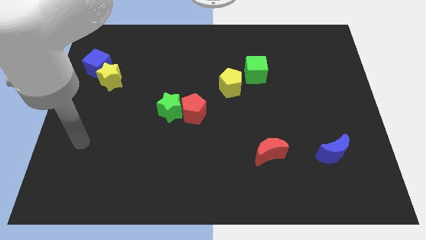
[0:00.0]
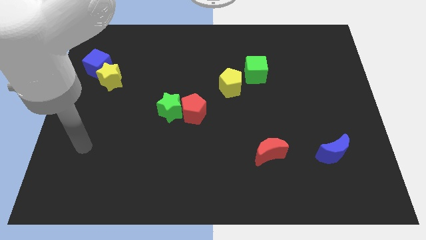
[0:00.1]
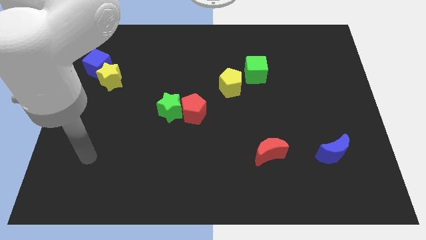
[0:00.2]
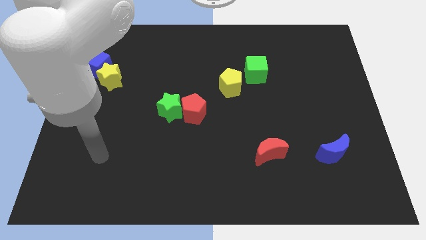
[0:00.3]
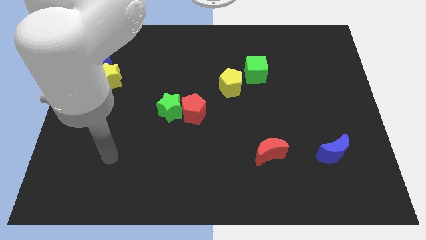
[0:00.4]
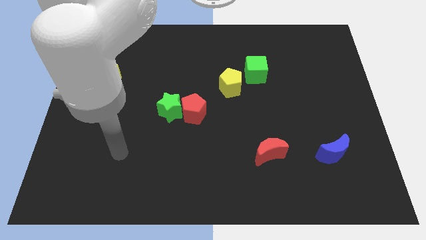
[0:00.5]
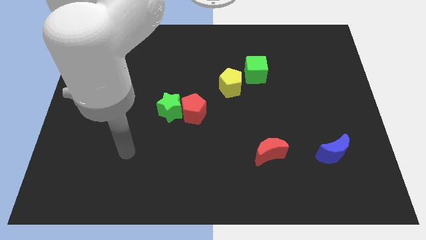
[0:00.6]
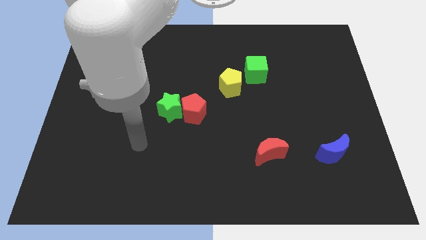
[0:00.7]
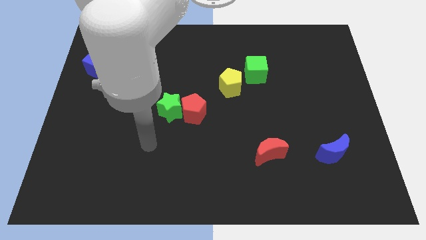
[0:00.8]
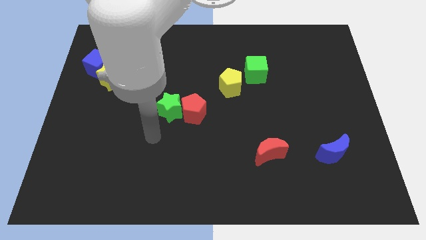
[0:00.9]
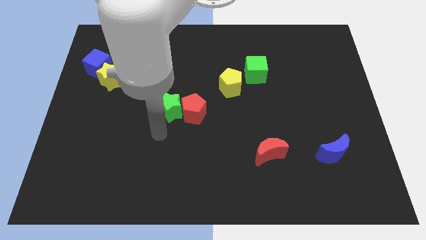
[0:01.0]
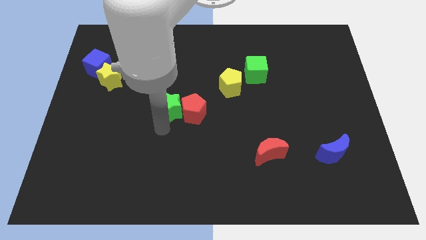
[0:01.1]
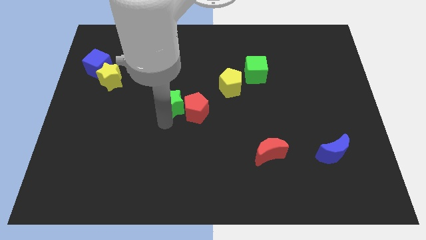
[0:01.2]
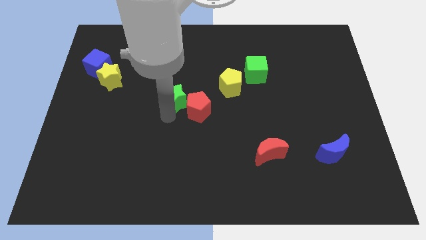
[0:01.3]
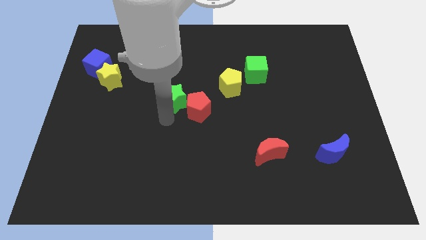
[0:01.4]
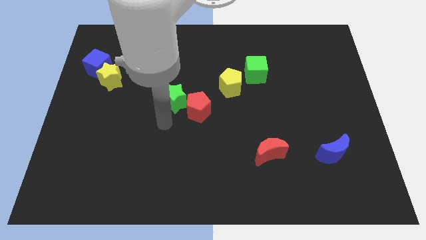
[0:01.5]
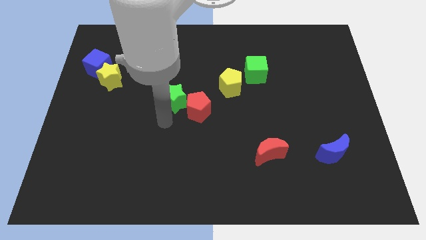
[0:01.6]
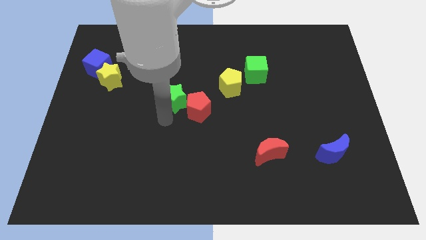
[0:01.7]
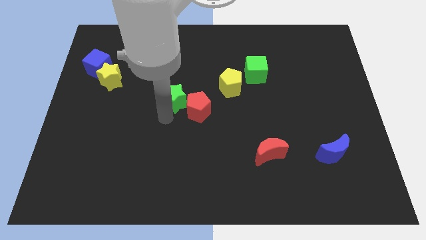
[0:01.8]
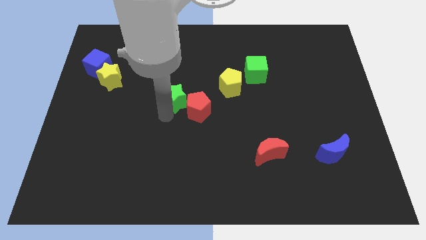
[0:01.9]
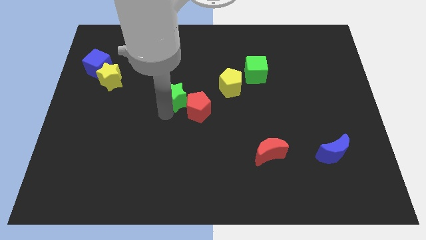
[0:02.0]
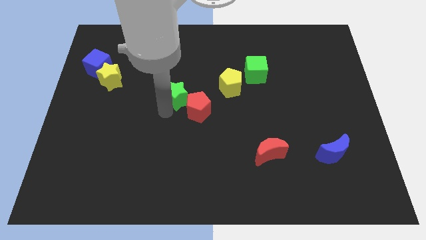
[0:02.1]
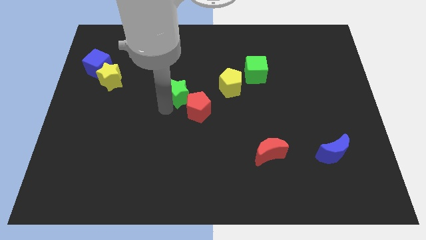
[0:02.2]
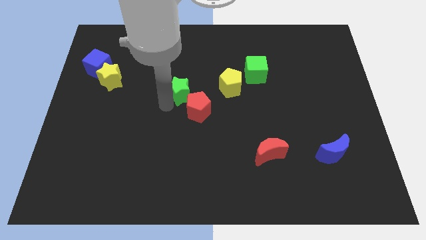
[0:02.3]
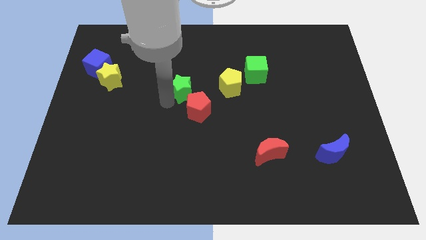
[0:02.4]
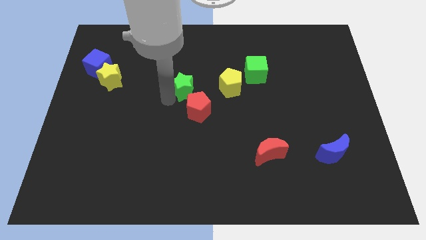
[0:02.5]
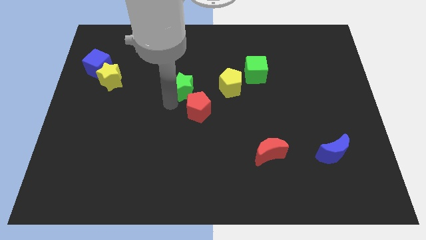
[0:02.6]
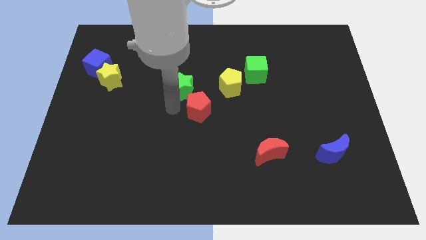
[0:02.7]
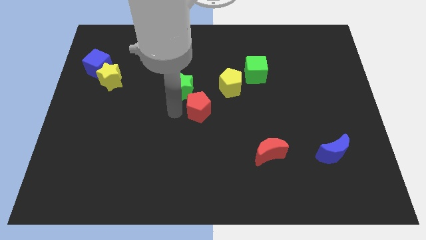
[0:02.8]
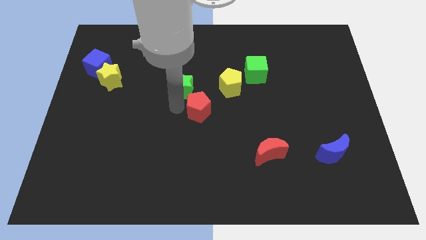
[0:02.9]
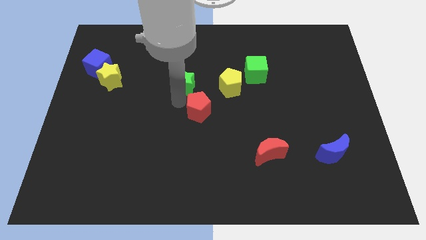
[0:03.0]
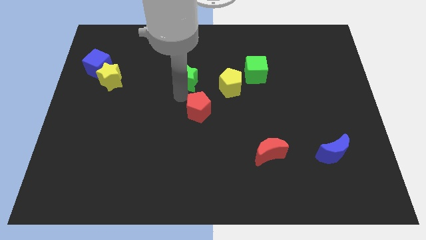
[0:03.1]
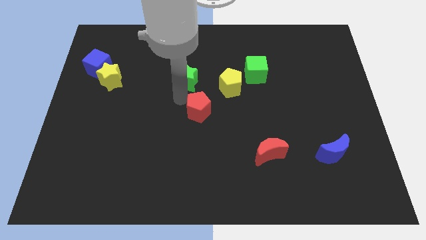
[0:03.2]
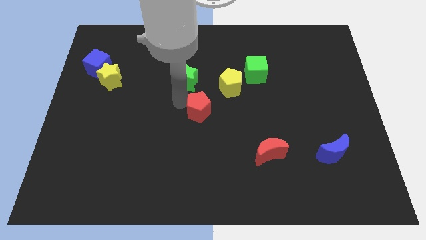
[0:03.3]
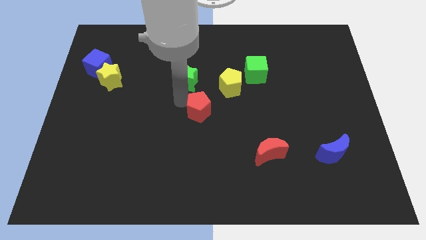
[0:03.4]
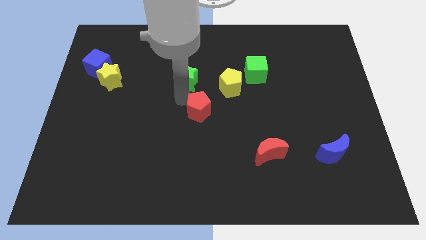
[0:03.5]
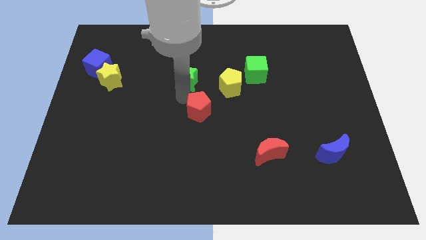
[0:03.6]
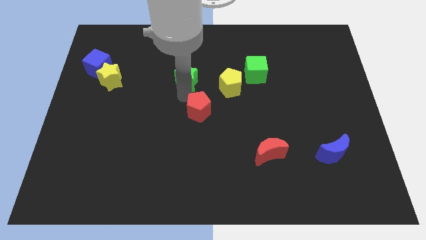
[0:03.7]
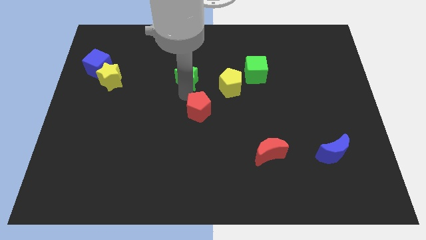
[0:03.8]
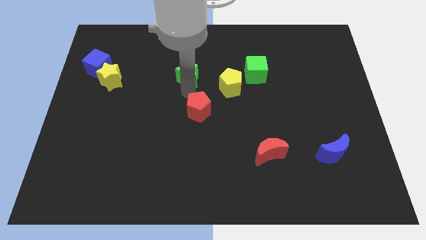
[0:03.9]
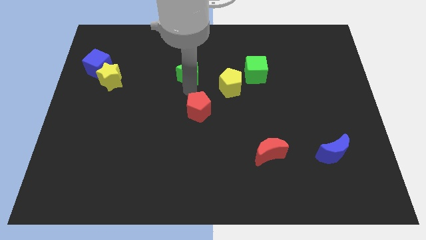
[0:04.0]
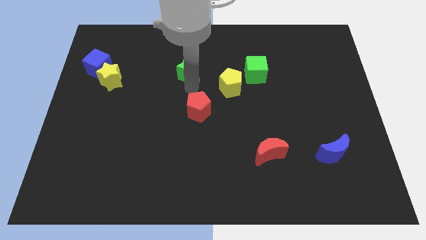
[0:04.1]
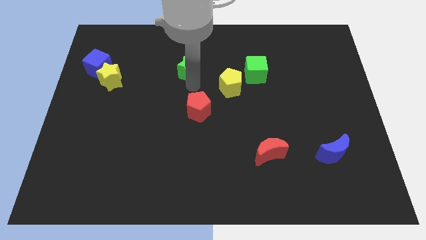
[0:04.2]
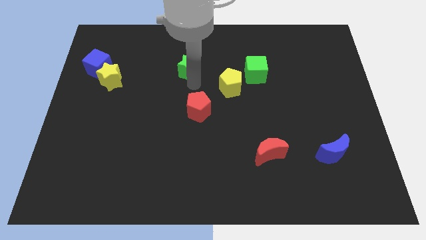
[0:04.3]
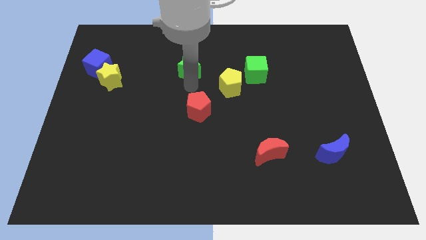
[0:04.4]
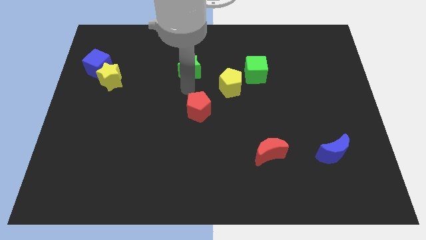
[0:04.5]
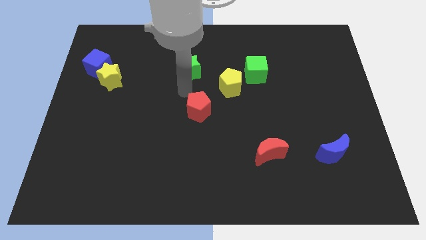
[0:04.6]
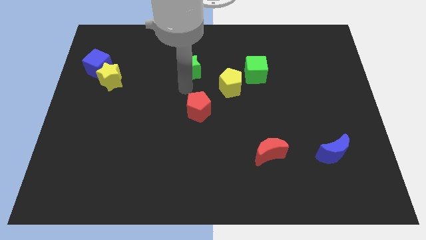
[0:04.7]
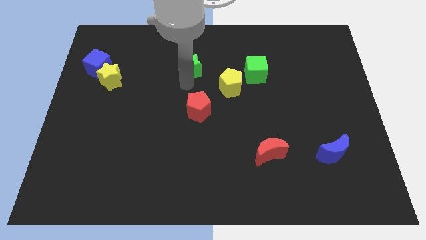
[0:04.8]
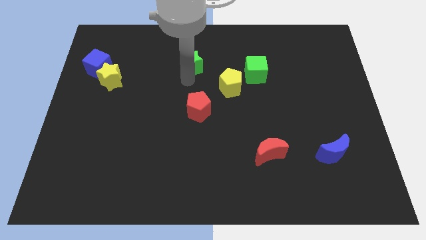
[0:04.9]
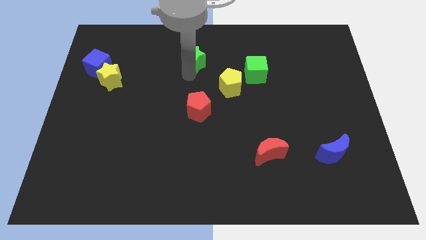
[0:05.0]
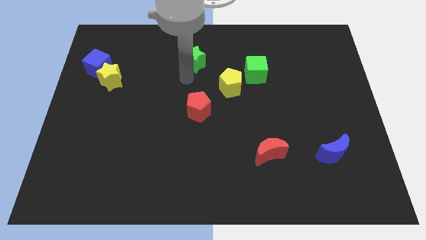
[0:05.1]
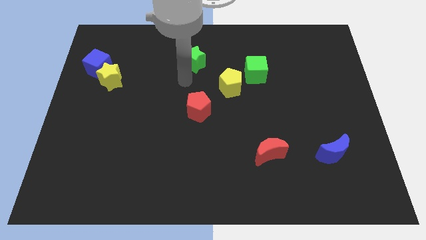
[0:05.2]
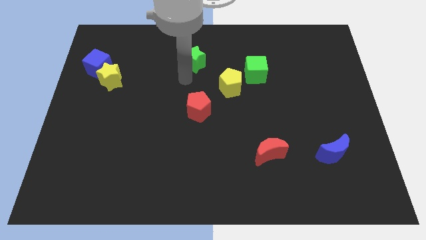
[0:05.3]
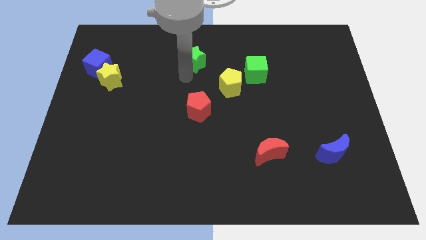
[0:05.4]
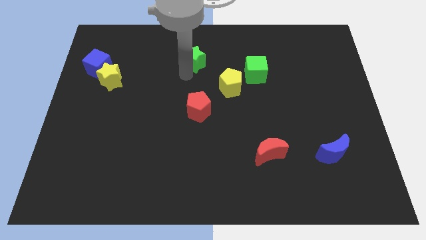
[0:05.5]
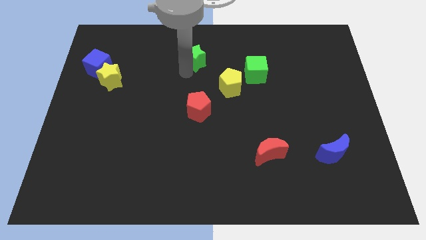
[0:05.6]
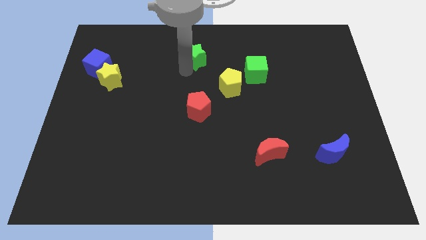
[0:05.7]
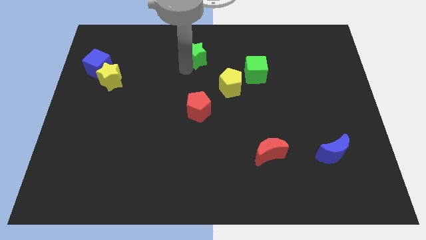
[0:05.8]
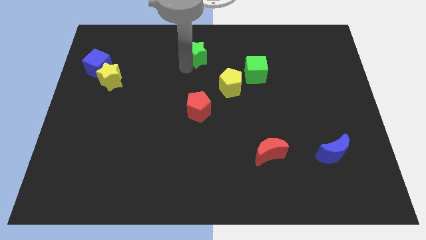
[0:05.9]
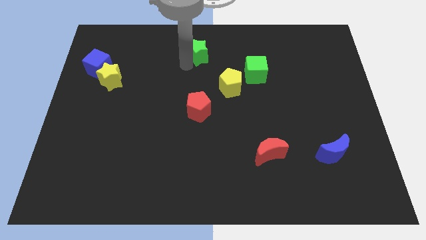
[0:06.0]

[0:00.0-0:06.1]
push the green star to the top

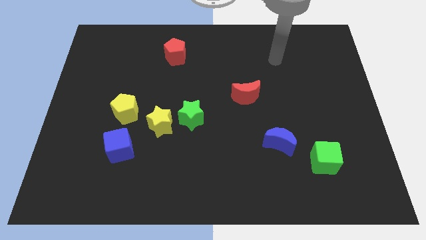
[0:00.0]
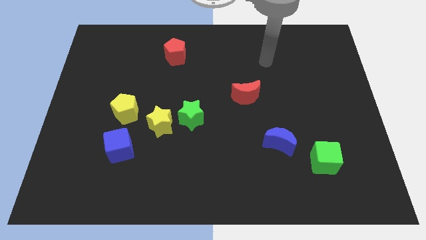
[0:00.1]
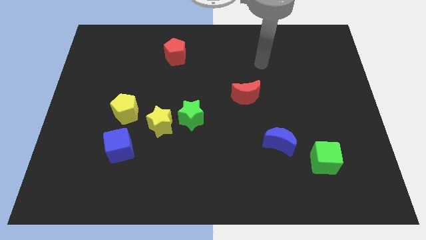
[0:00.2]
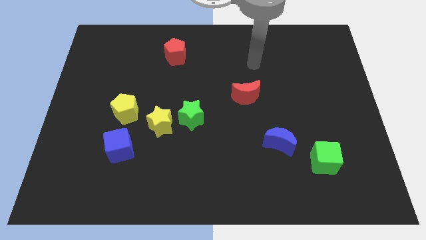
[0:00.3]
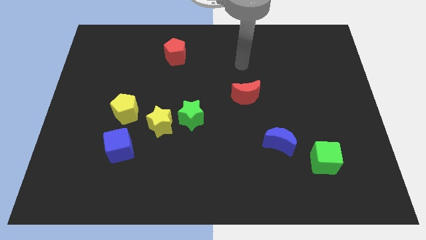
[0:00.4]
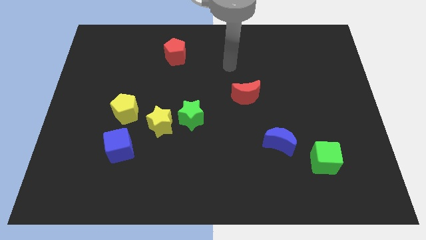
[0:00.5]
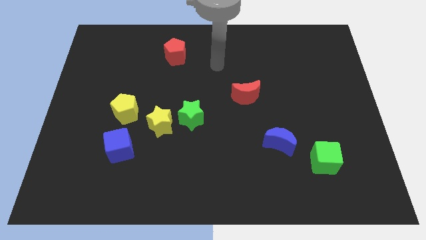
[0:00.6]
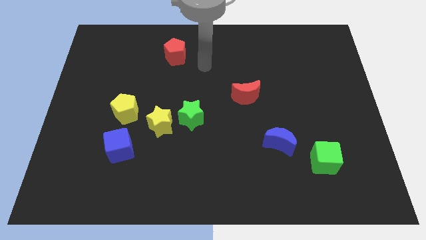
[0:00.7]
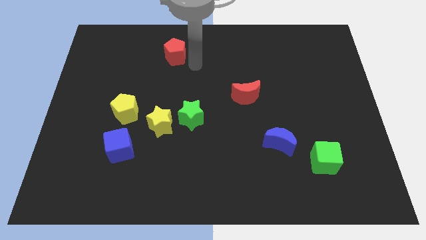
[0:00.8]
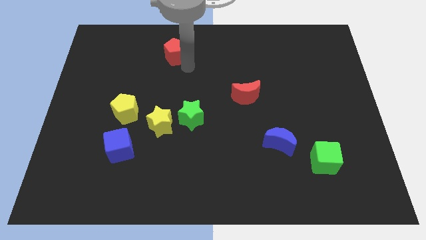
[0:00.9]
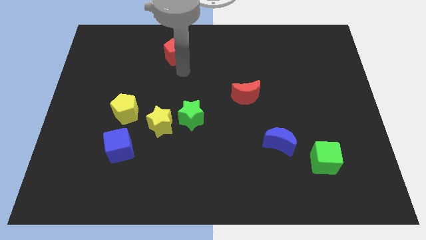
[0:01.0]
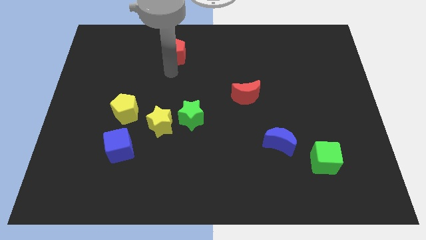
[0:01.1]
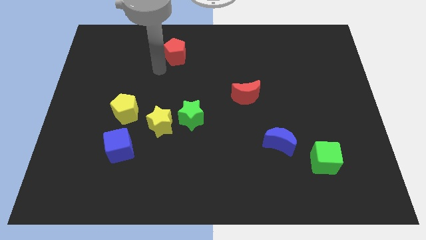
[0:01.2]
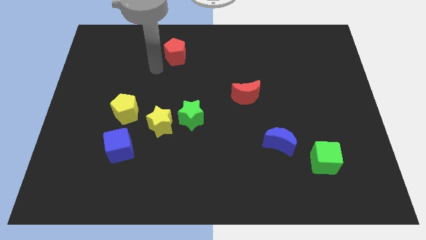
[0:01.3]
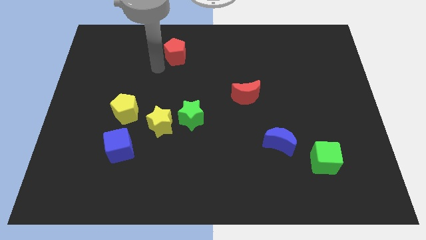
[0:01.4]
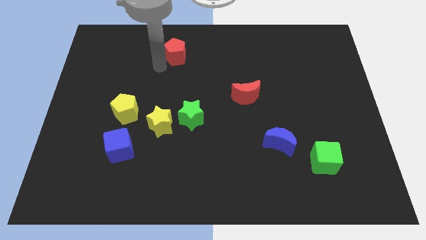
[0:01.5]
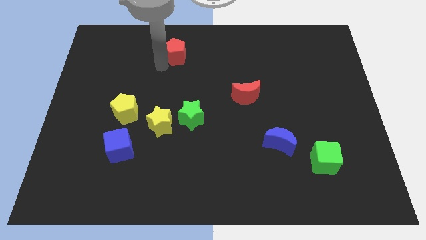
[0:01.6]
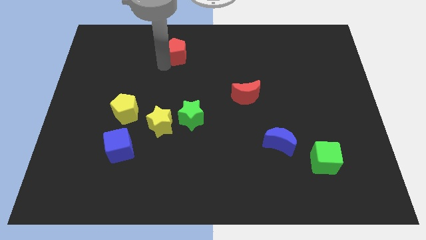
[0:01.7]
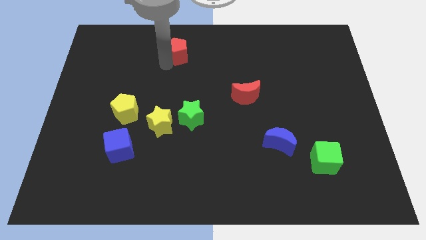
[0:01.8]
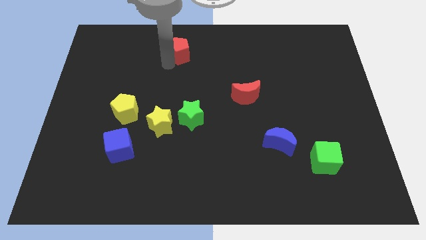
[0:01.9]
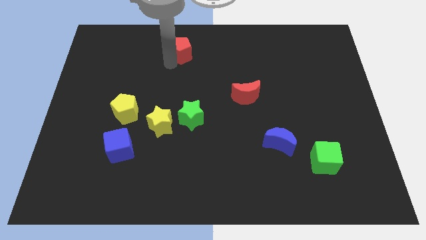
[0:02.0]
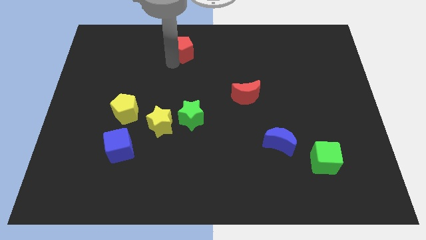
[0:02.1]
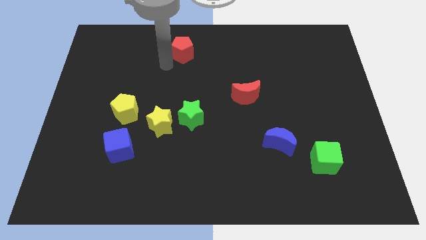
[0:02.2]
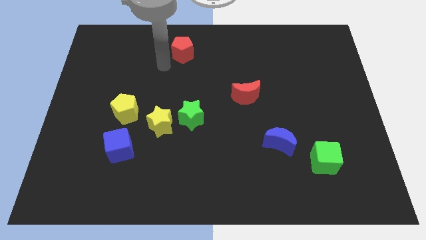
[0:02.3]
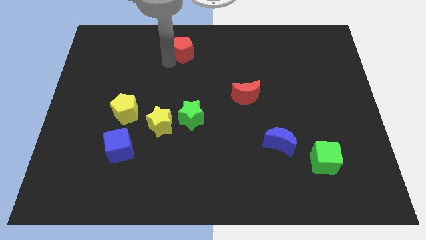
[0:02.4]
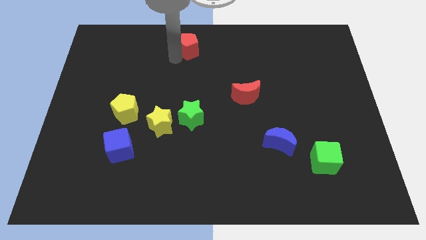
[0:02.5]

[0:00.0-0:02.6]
put the red pentagon to the top
